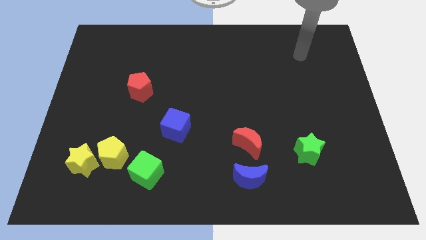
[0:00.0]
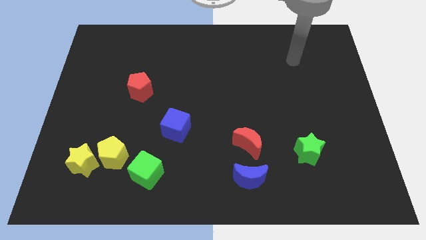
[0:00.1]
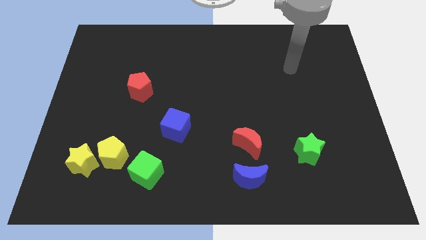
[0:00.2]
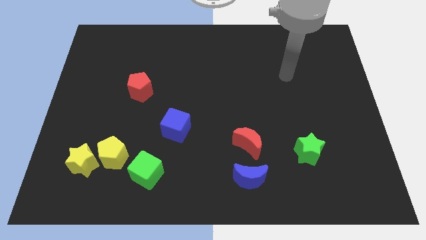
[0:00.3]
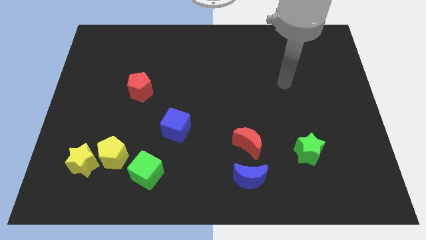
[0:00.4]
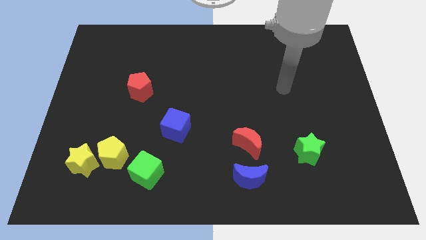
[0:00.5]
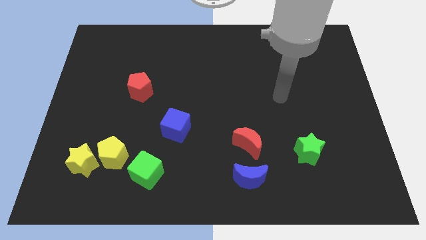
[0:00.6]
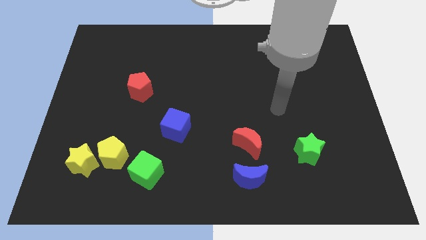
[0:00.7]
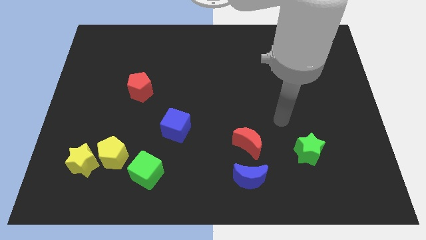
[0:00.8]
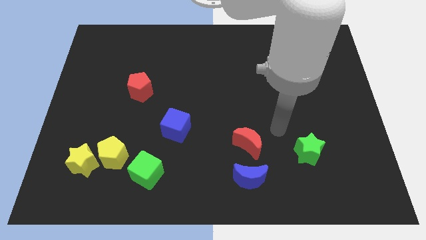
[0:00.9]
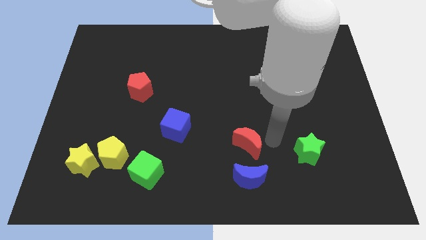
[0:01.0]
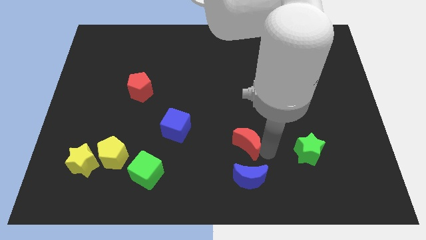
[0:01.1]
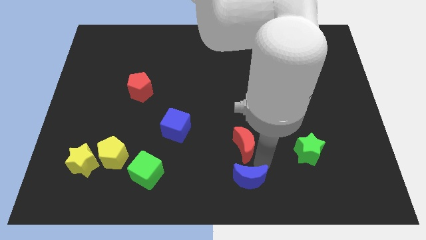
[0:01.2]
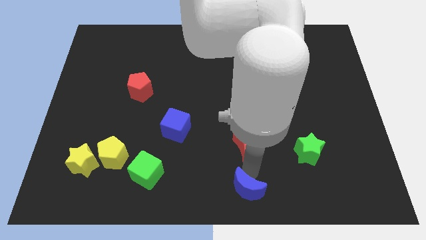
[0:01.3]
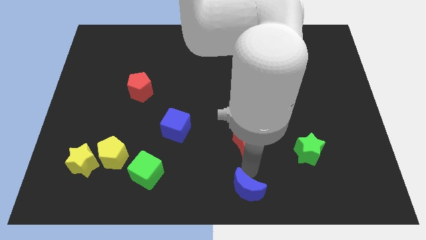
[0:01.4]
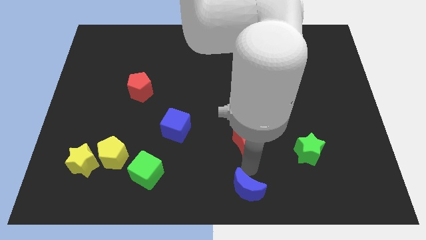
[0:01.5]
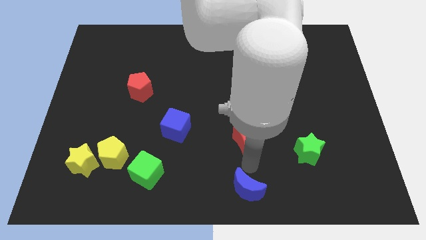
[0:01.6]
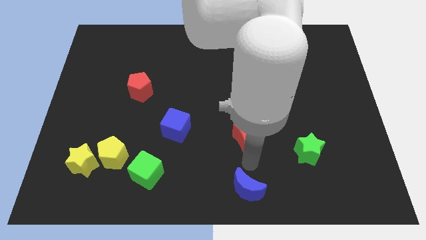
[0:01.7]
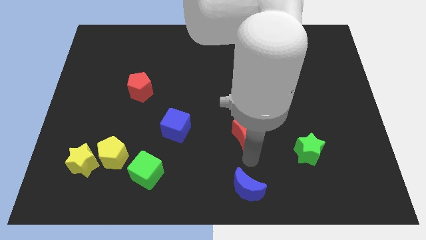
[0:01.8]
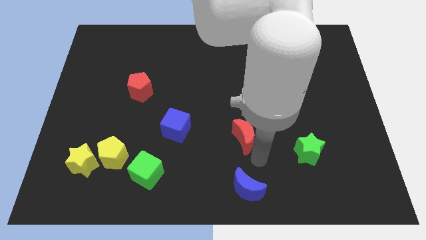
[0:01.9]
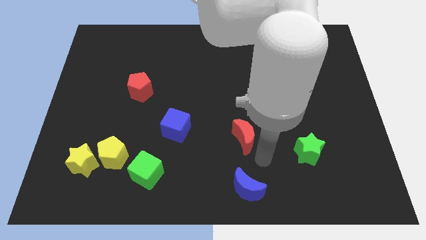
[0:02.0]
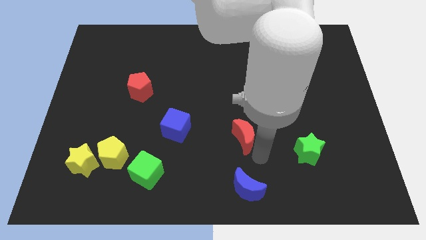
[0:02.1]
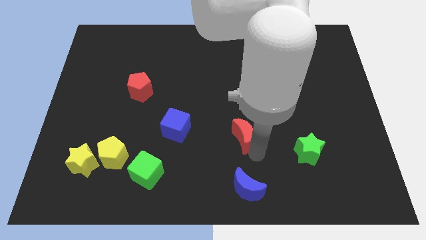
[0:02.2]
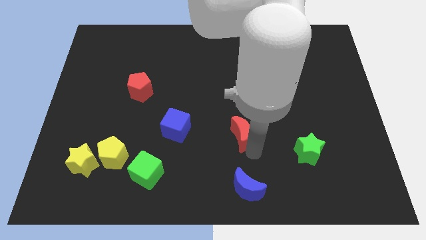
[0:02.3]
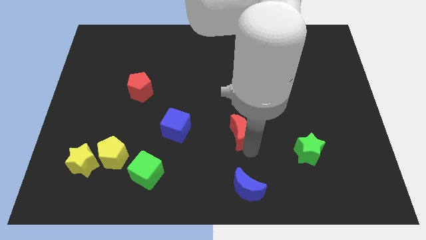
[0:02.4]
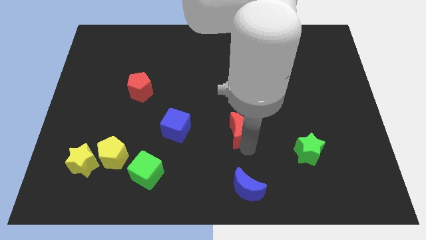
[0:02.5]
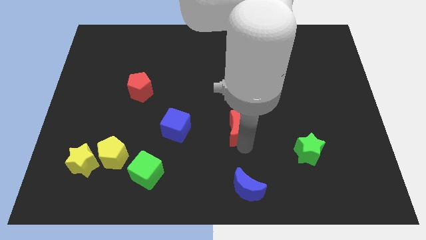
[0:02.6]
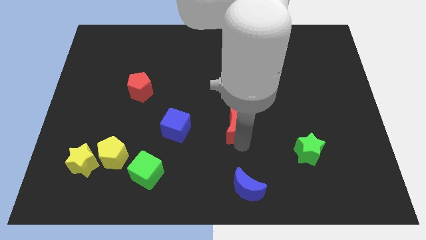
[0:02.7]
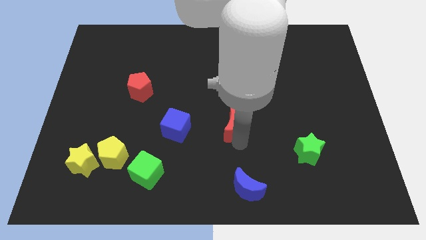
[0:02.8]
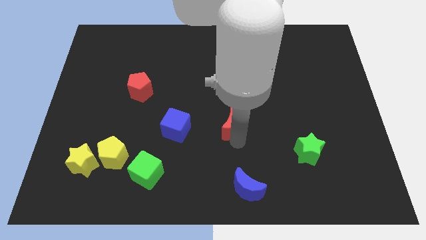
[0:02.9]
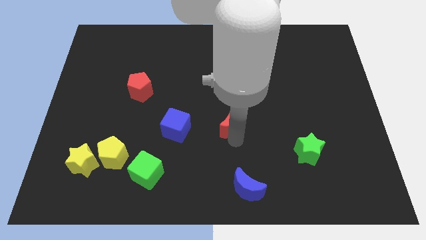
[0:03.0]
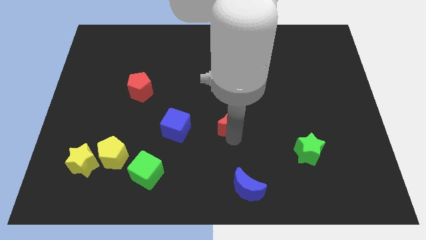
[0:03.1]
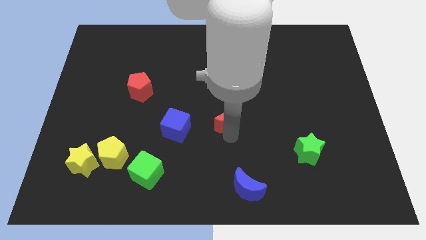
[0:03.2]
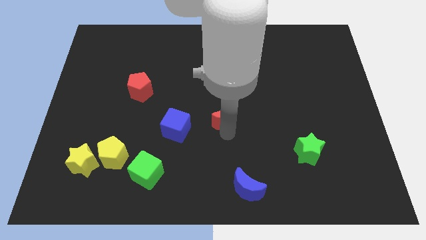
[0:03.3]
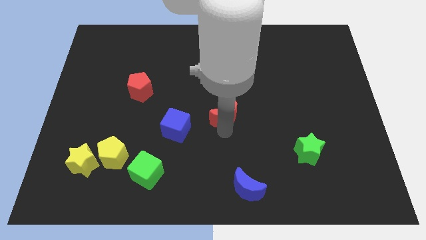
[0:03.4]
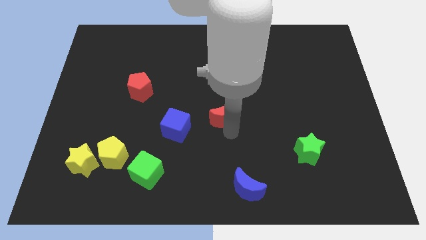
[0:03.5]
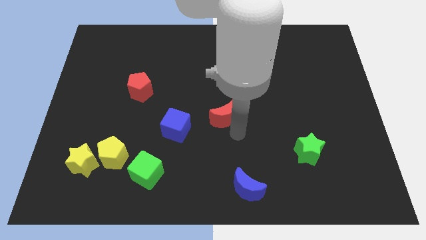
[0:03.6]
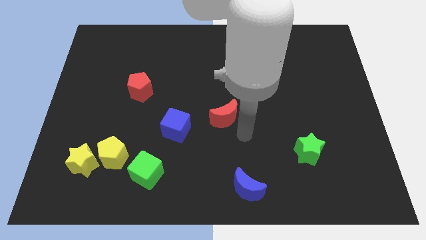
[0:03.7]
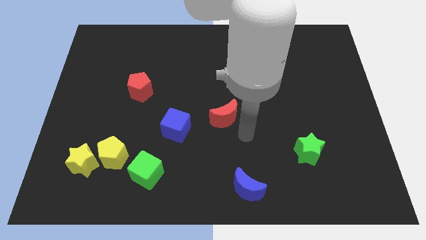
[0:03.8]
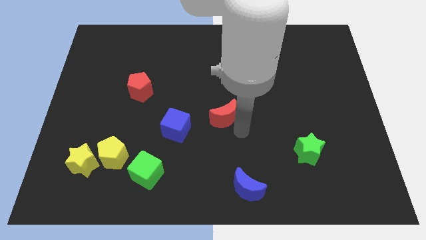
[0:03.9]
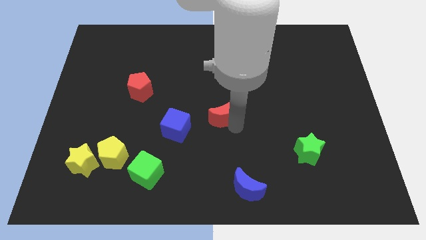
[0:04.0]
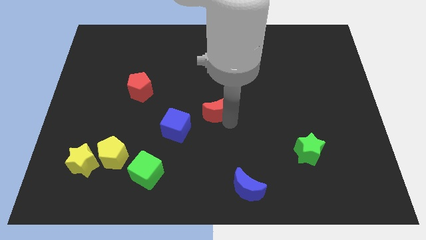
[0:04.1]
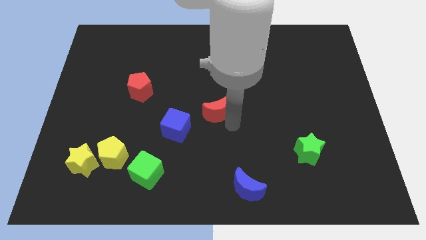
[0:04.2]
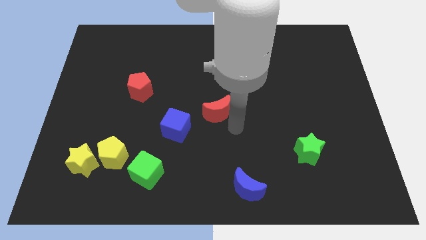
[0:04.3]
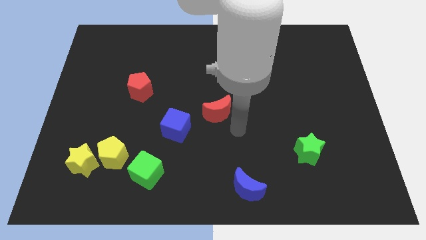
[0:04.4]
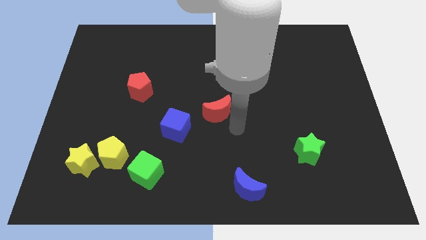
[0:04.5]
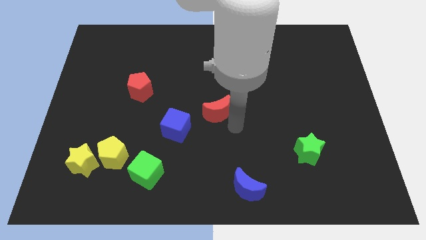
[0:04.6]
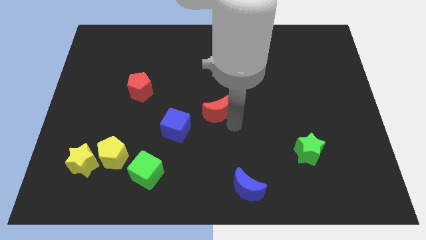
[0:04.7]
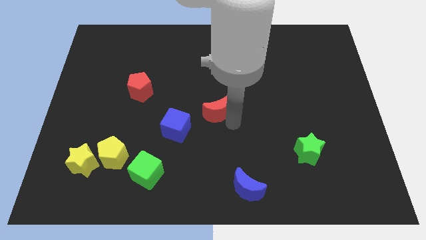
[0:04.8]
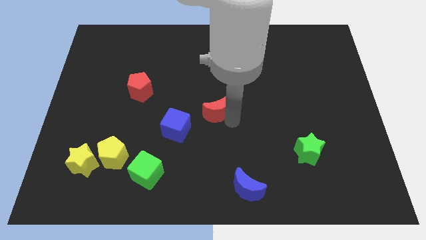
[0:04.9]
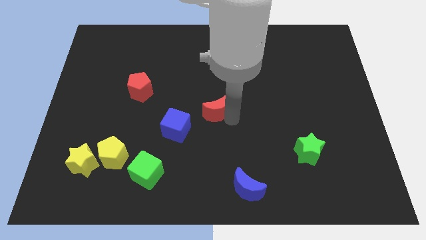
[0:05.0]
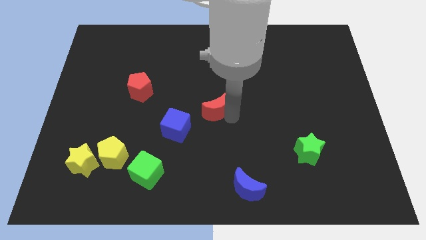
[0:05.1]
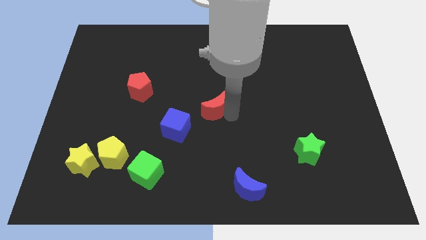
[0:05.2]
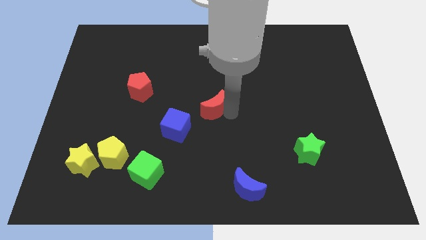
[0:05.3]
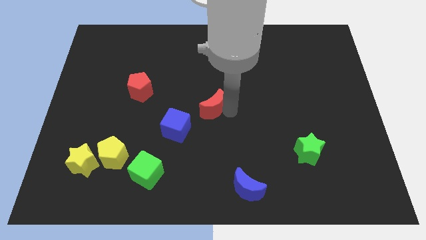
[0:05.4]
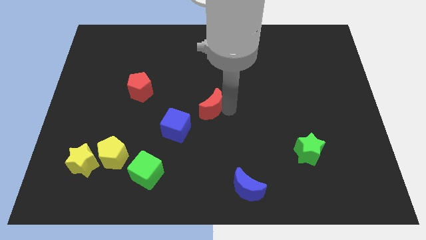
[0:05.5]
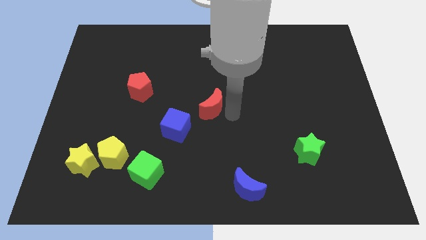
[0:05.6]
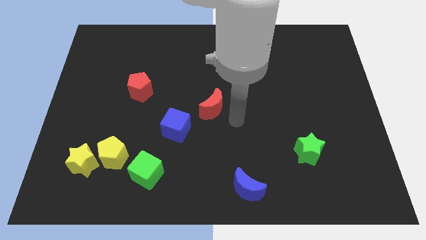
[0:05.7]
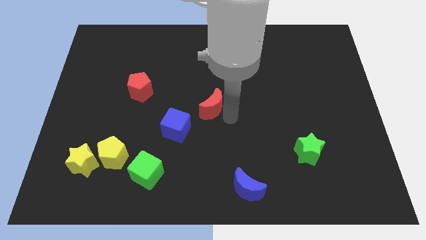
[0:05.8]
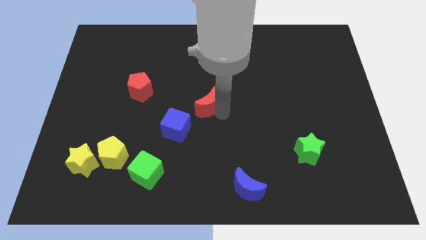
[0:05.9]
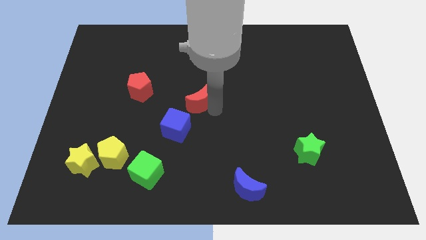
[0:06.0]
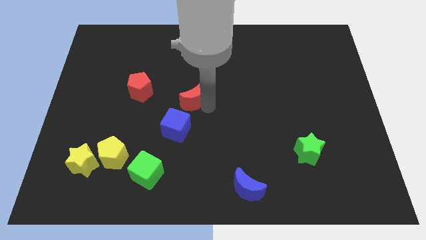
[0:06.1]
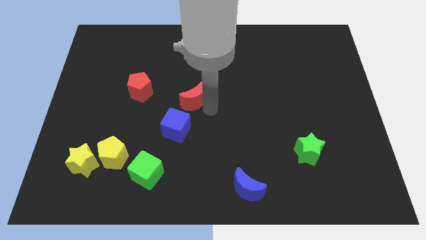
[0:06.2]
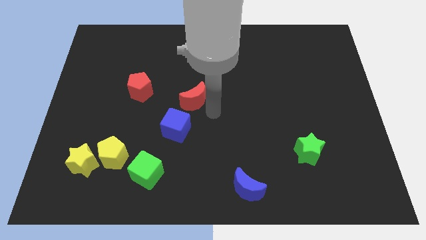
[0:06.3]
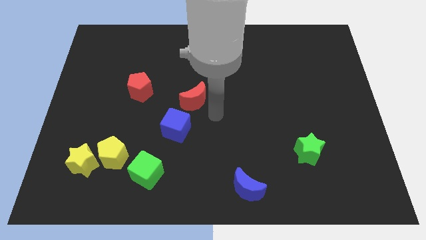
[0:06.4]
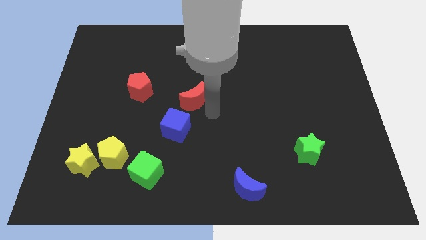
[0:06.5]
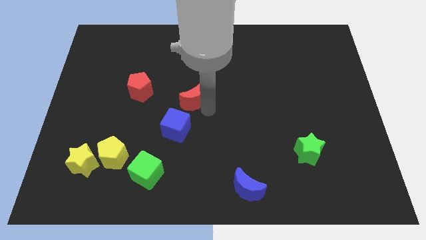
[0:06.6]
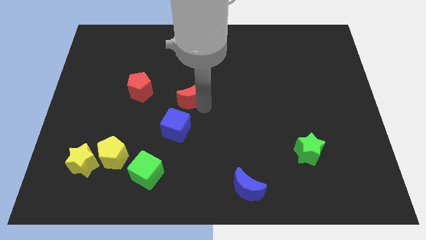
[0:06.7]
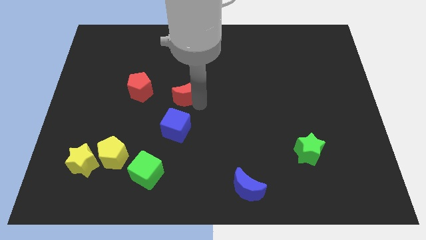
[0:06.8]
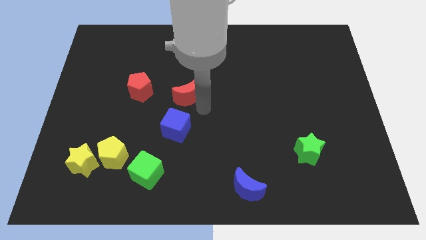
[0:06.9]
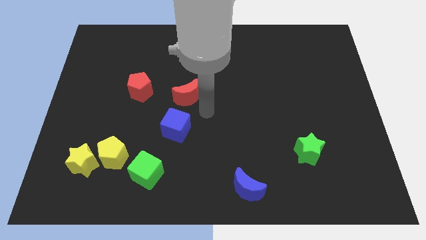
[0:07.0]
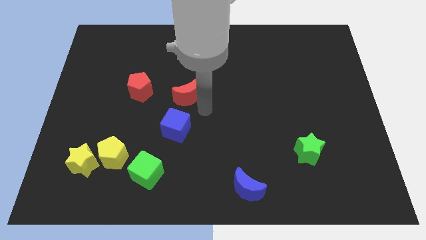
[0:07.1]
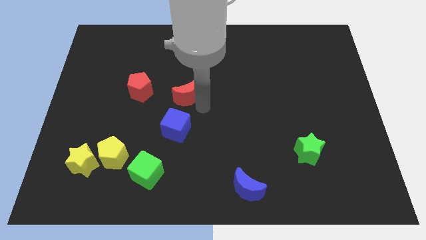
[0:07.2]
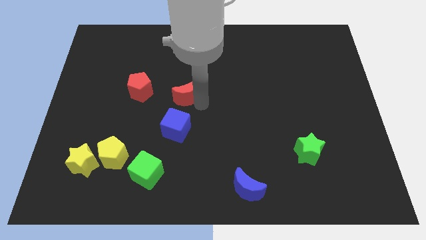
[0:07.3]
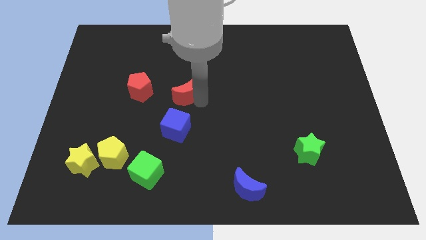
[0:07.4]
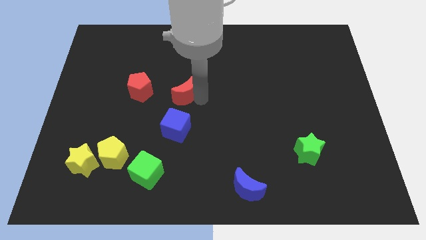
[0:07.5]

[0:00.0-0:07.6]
slide the red moon diagonally upwards and left

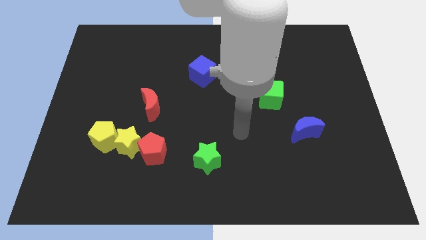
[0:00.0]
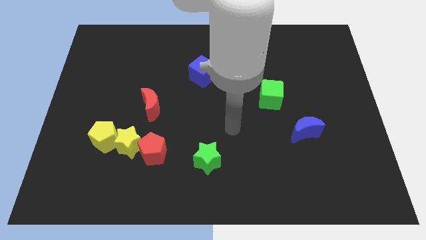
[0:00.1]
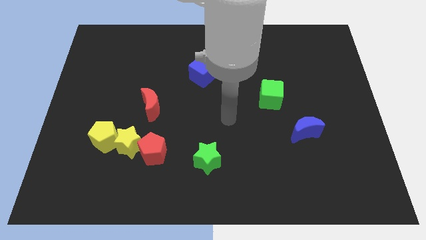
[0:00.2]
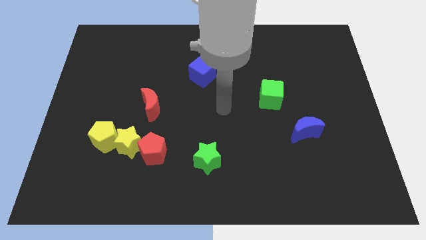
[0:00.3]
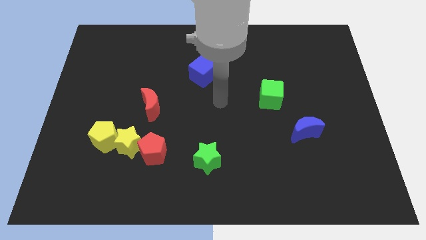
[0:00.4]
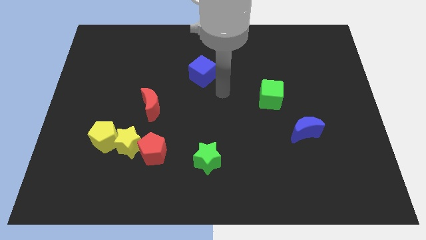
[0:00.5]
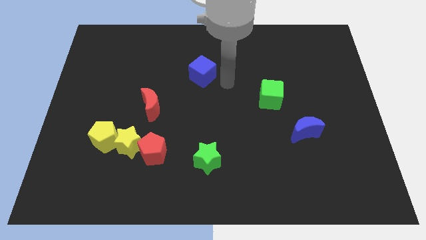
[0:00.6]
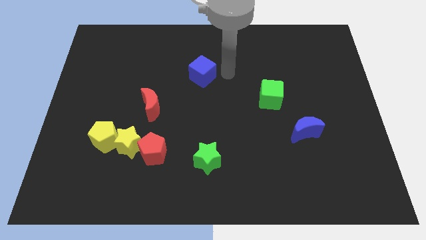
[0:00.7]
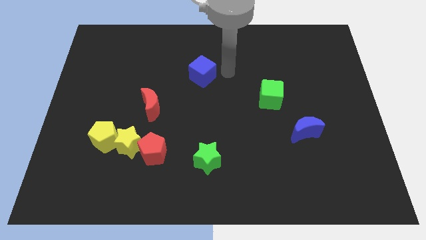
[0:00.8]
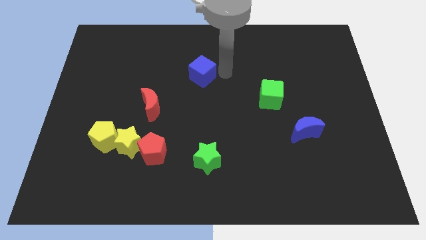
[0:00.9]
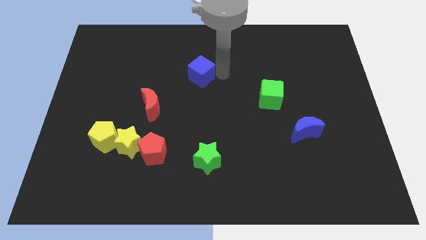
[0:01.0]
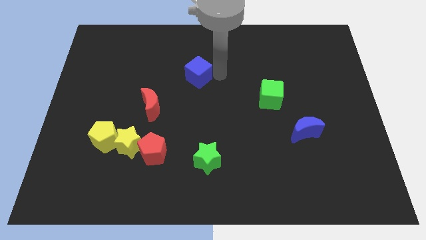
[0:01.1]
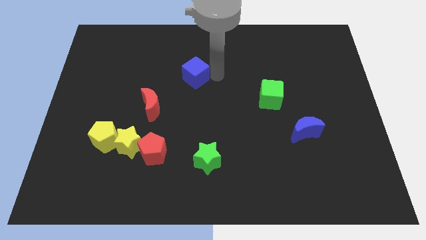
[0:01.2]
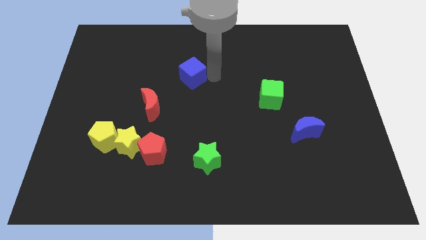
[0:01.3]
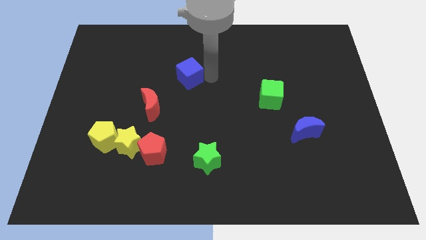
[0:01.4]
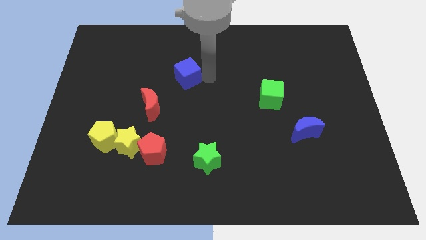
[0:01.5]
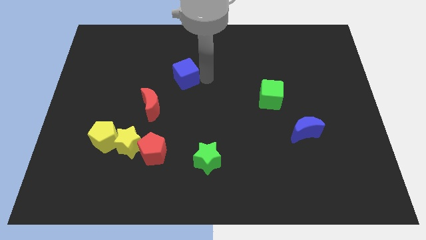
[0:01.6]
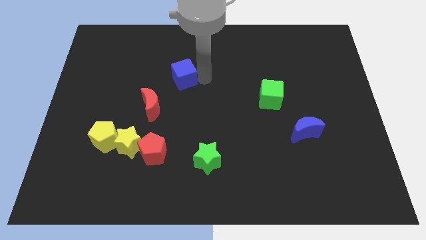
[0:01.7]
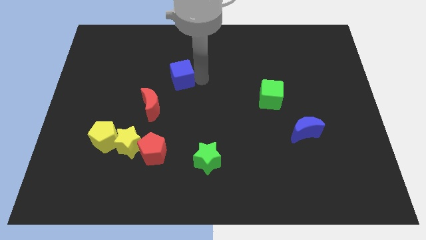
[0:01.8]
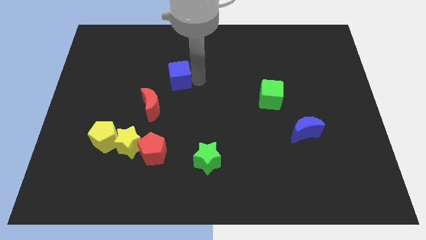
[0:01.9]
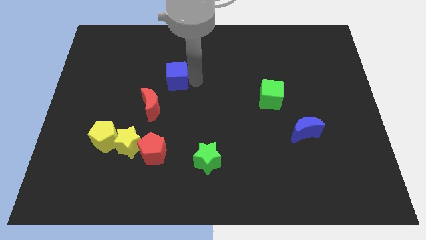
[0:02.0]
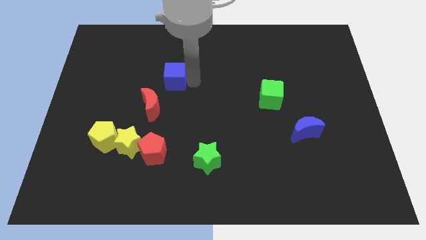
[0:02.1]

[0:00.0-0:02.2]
move the blue cube to the left a little
